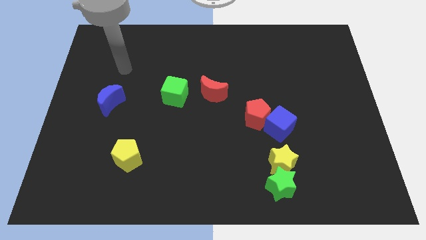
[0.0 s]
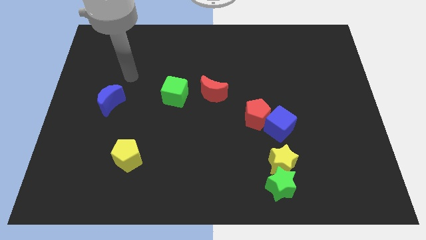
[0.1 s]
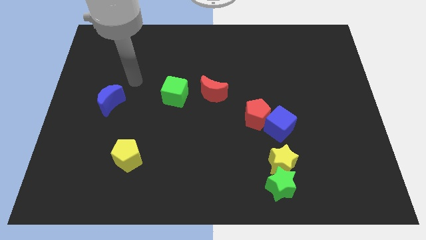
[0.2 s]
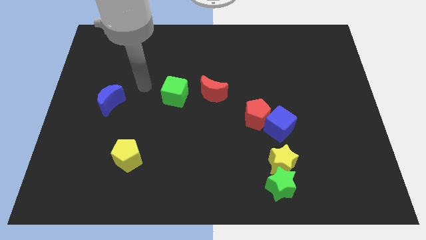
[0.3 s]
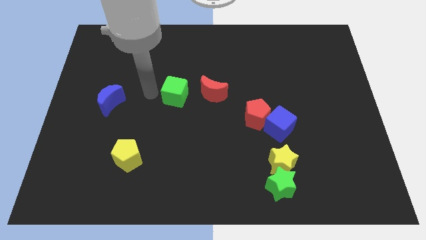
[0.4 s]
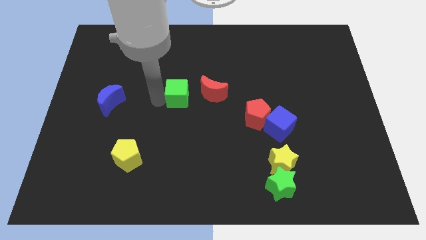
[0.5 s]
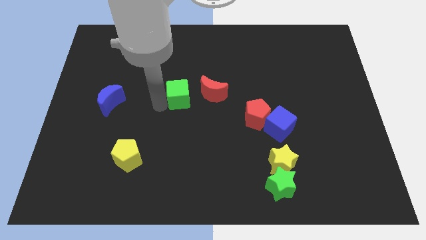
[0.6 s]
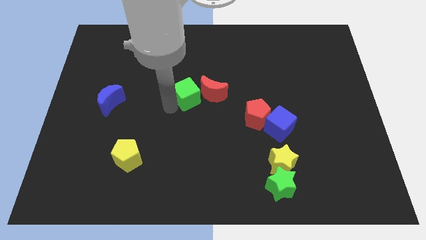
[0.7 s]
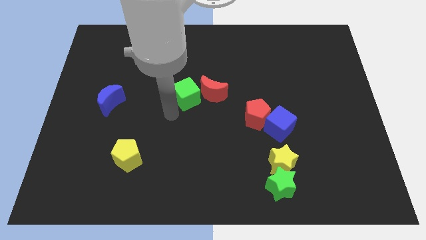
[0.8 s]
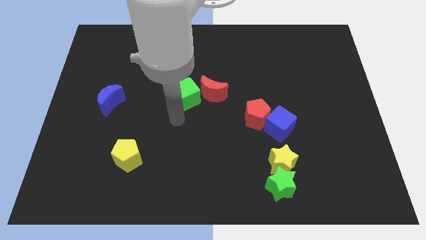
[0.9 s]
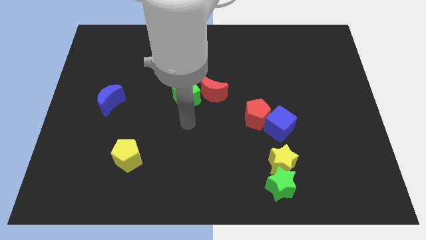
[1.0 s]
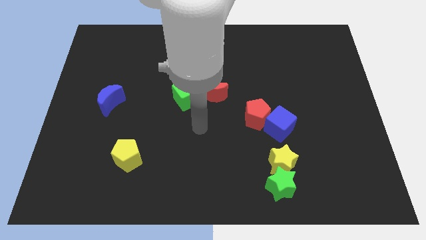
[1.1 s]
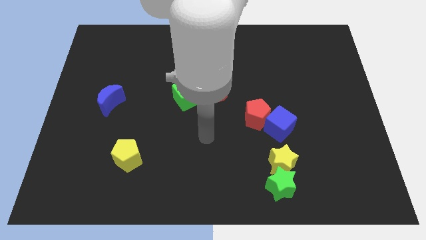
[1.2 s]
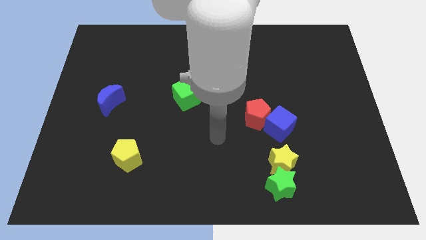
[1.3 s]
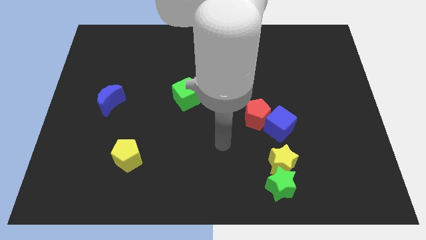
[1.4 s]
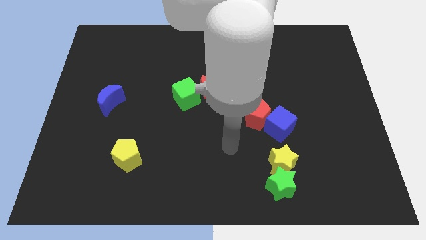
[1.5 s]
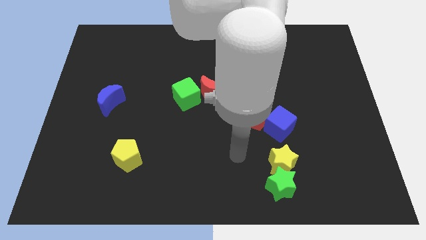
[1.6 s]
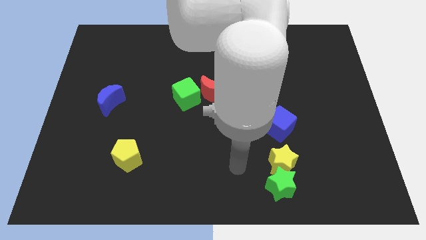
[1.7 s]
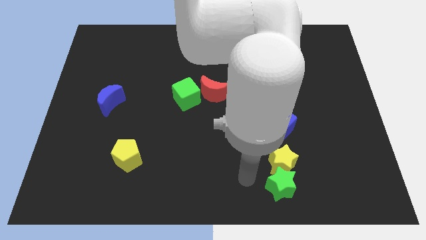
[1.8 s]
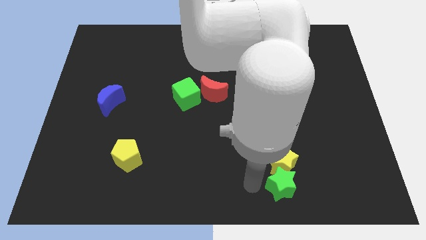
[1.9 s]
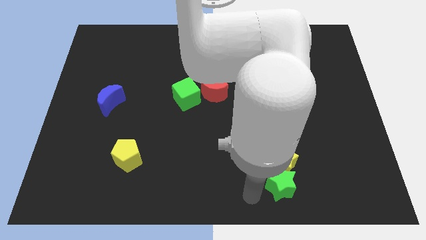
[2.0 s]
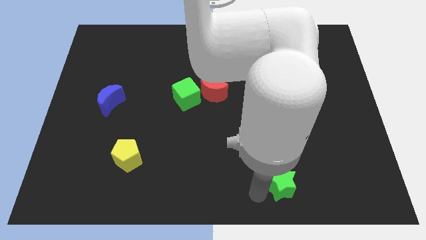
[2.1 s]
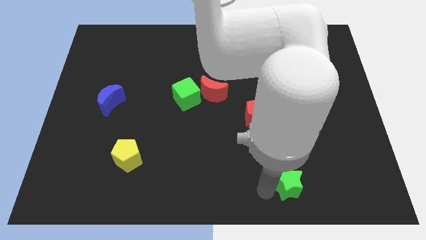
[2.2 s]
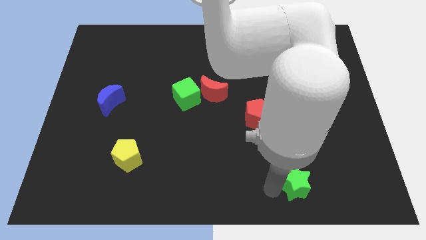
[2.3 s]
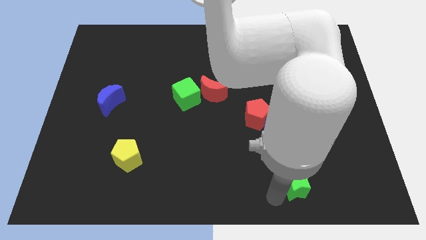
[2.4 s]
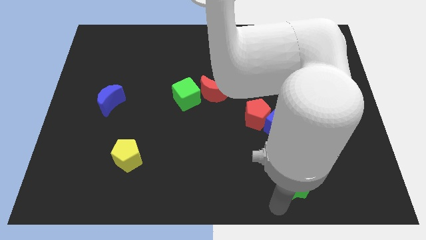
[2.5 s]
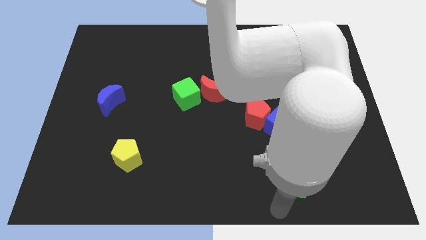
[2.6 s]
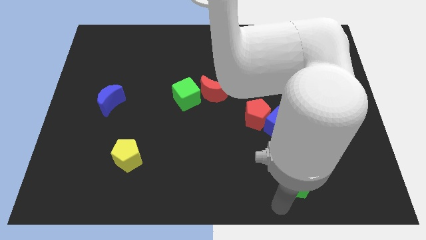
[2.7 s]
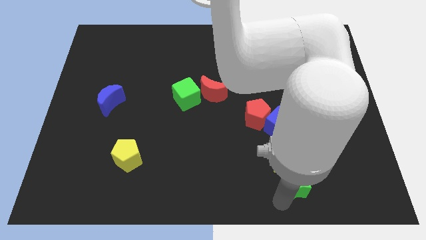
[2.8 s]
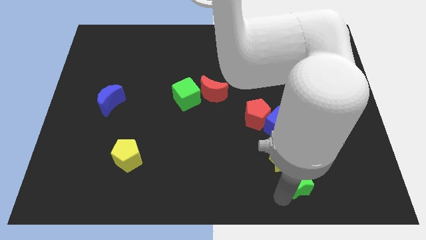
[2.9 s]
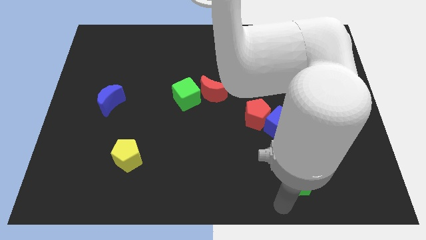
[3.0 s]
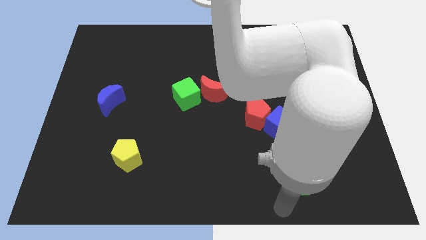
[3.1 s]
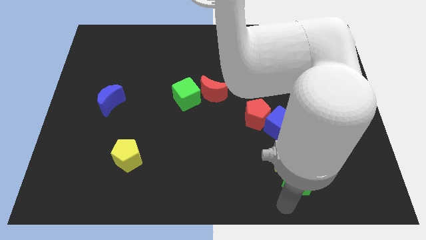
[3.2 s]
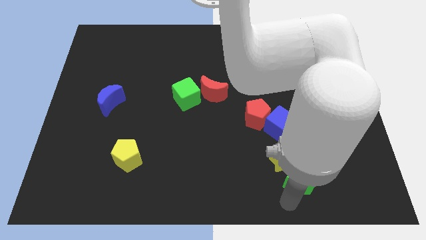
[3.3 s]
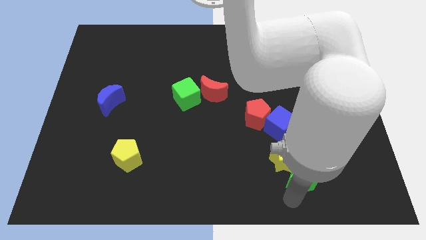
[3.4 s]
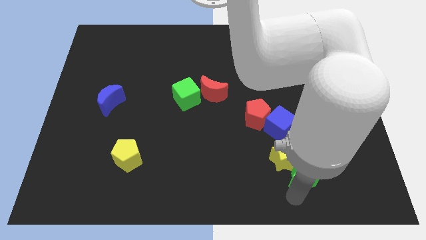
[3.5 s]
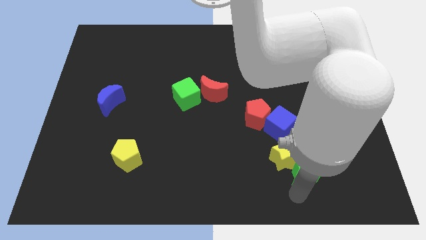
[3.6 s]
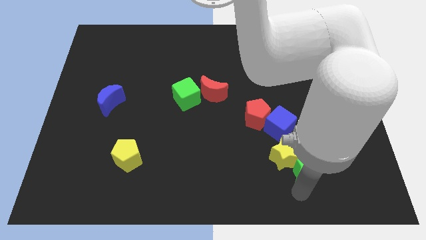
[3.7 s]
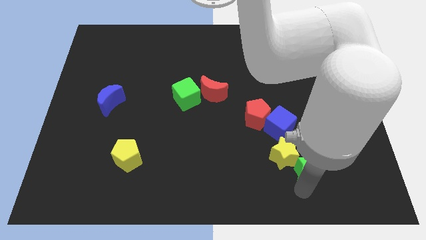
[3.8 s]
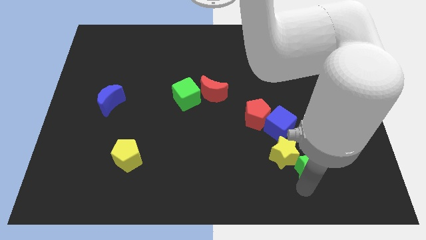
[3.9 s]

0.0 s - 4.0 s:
slide the green star upwards and to the right a little bit

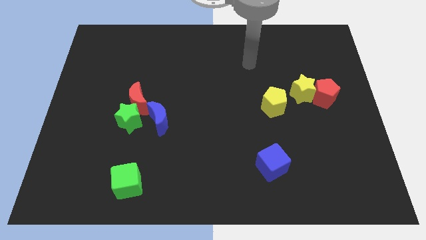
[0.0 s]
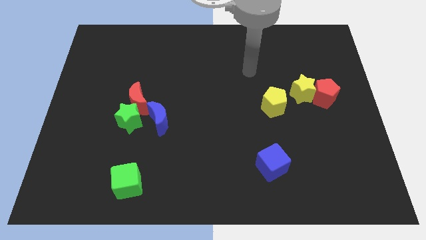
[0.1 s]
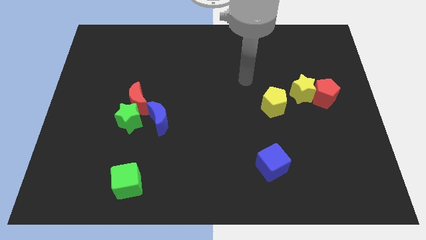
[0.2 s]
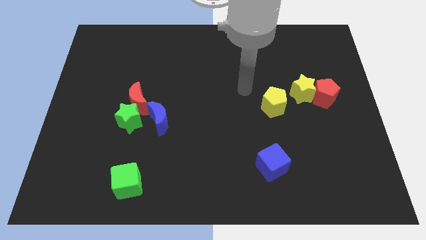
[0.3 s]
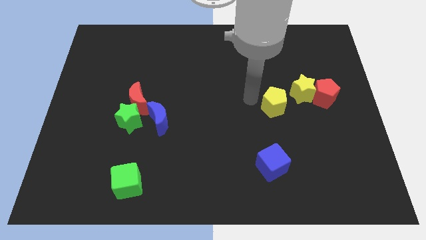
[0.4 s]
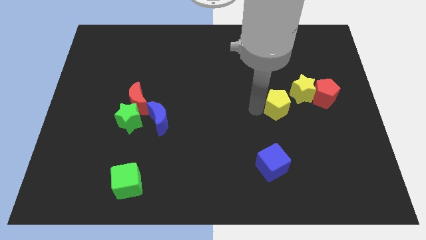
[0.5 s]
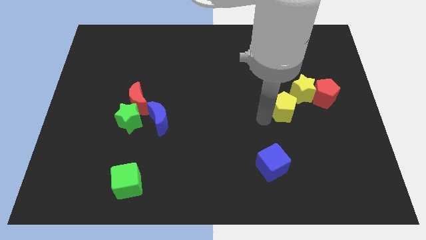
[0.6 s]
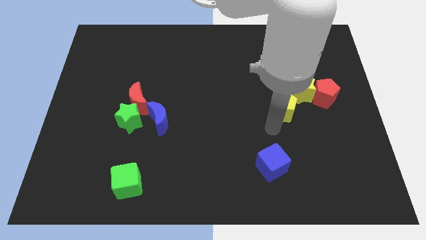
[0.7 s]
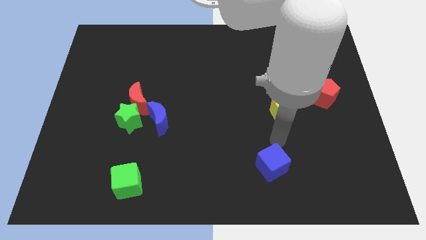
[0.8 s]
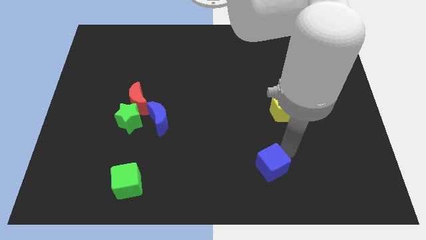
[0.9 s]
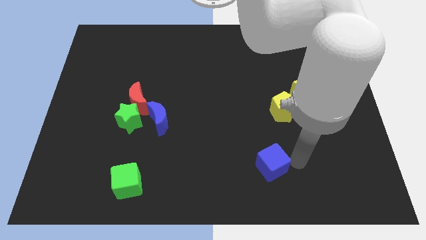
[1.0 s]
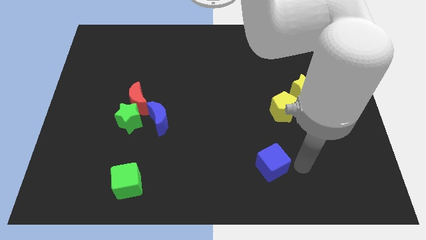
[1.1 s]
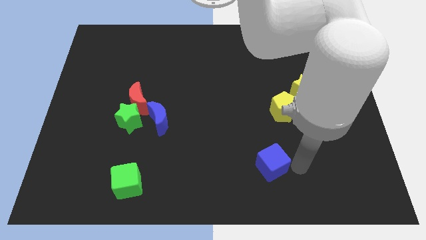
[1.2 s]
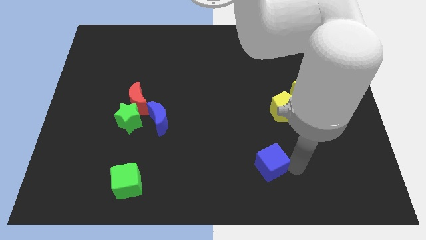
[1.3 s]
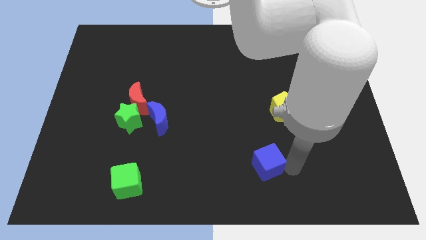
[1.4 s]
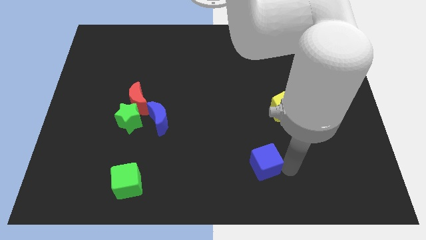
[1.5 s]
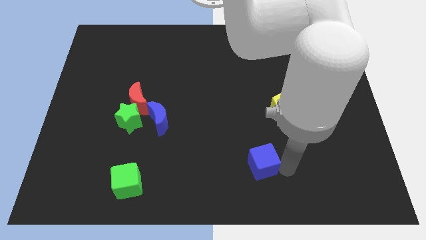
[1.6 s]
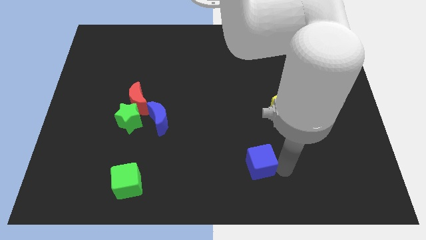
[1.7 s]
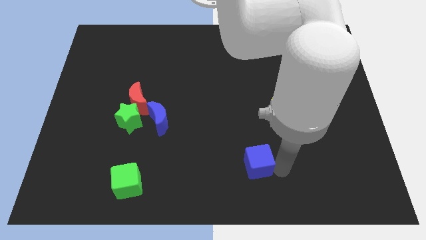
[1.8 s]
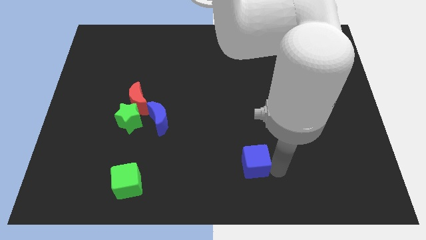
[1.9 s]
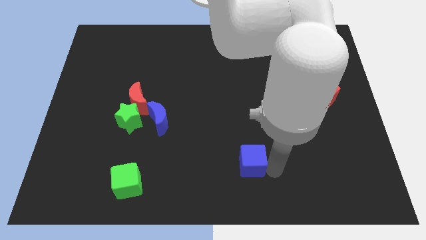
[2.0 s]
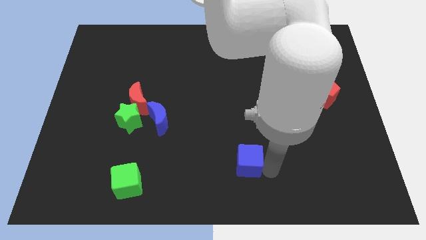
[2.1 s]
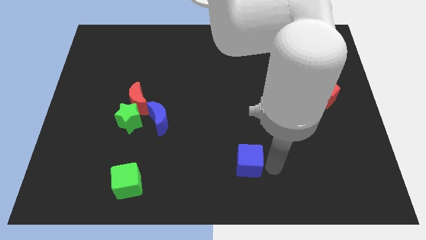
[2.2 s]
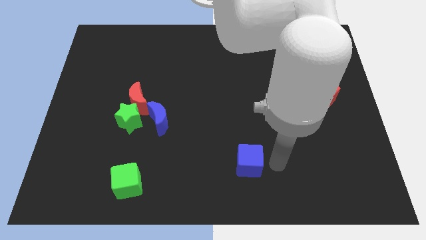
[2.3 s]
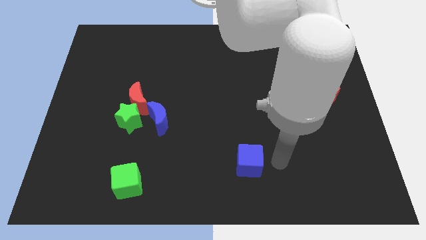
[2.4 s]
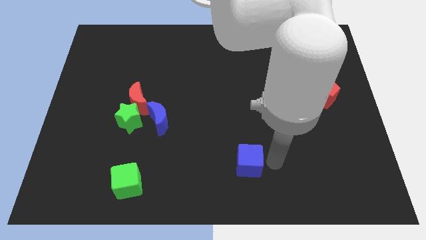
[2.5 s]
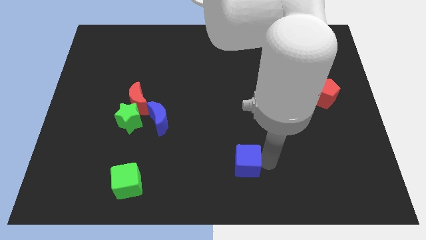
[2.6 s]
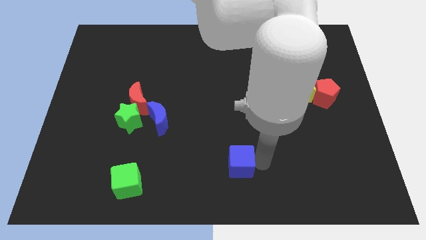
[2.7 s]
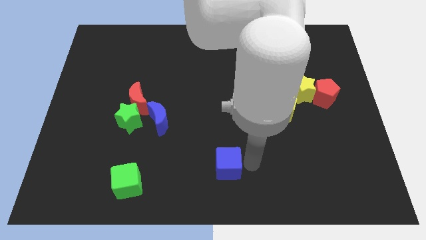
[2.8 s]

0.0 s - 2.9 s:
push the blue cube somewhat left

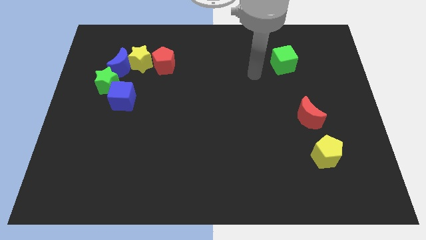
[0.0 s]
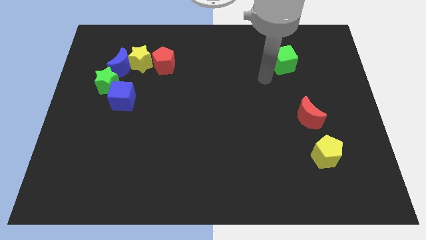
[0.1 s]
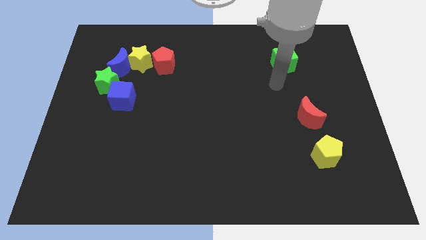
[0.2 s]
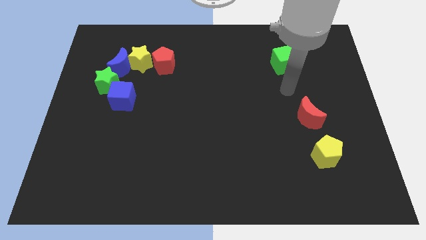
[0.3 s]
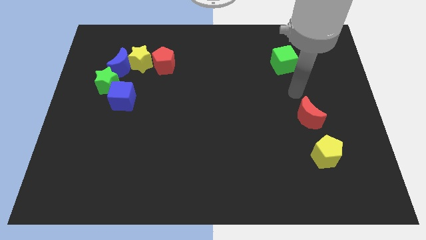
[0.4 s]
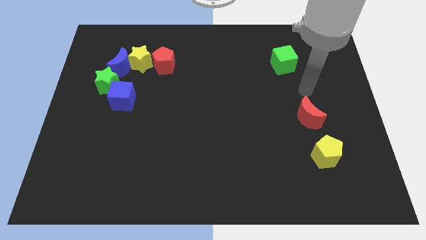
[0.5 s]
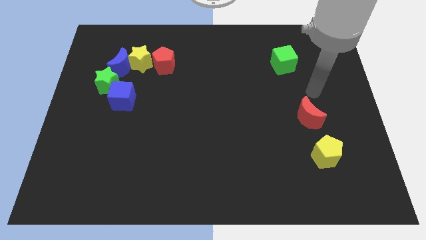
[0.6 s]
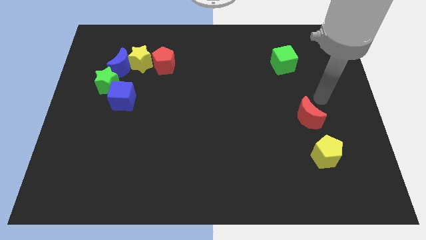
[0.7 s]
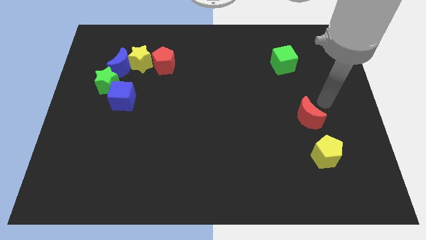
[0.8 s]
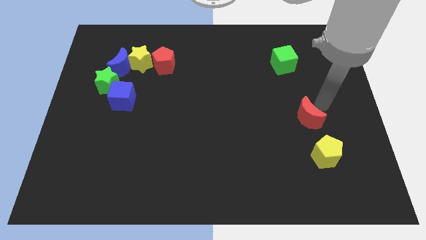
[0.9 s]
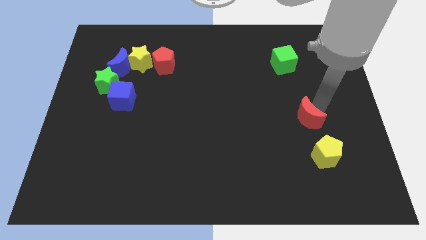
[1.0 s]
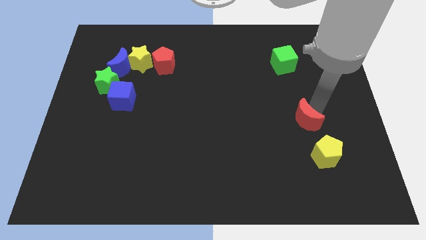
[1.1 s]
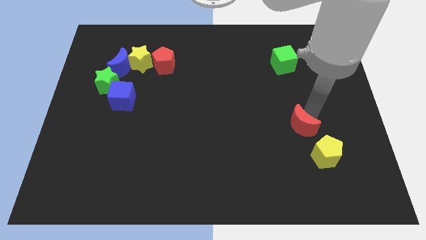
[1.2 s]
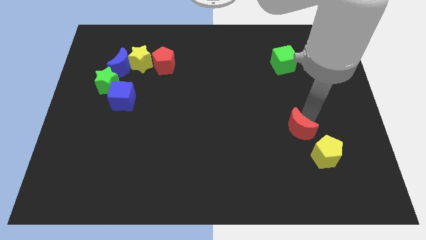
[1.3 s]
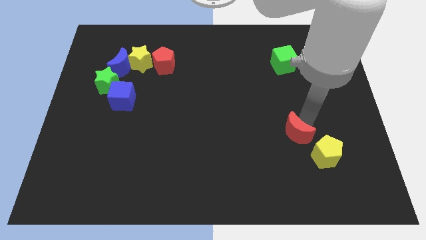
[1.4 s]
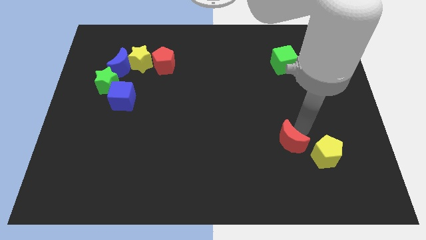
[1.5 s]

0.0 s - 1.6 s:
slightly slide the red moon diagonally downwards and left

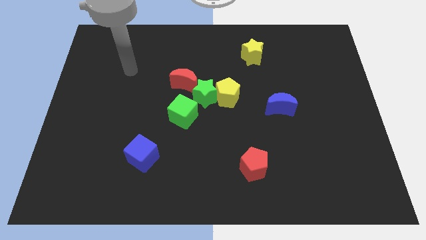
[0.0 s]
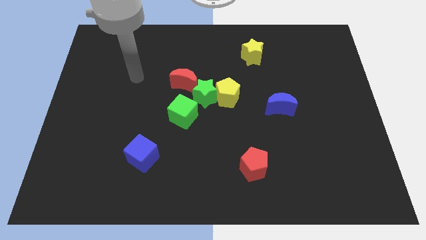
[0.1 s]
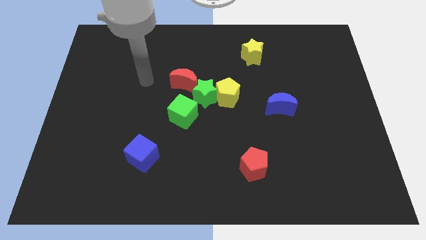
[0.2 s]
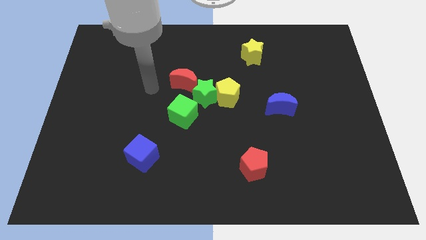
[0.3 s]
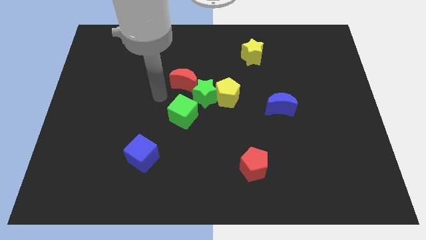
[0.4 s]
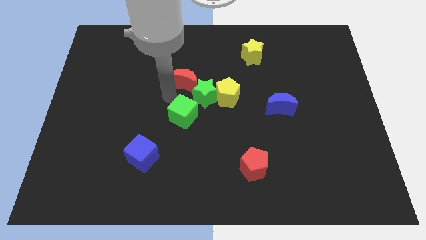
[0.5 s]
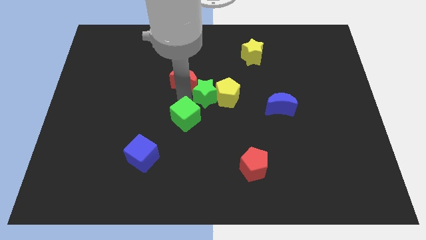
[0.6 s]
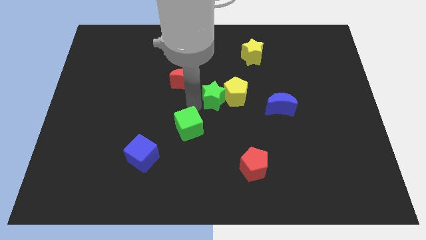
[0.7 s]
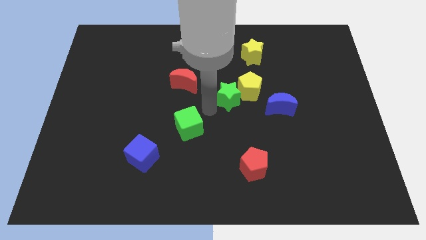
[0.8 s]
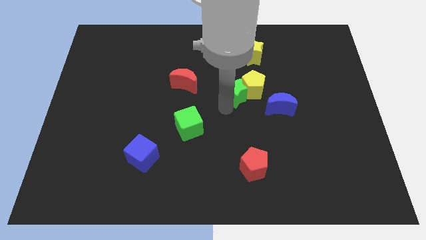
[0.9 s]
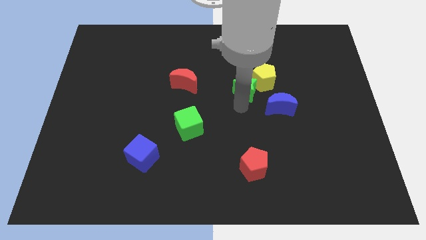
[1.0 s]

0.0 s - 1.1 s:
slide the yellow pentagon diagonally up and to the right a little
